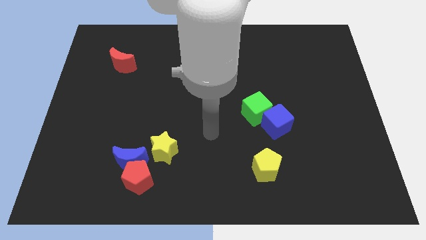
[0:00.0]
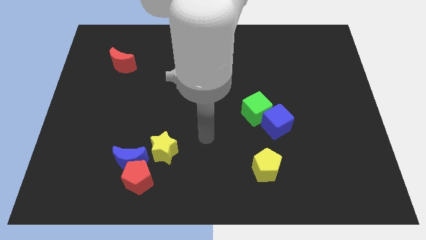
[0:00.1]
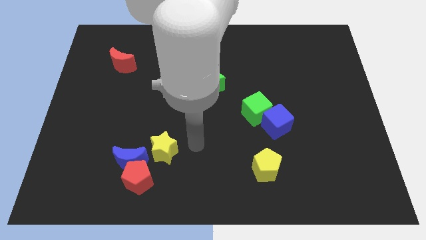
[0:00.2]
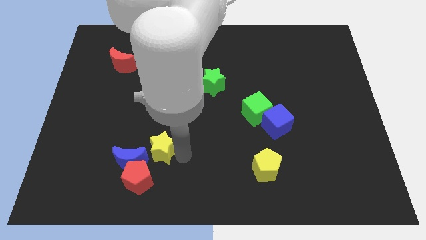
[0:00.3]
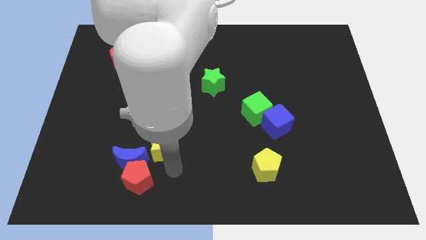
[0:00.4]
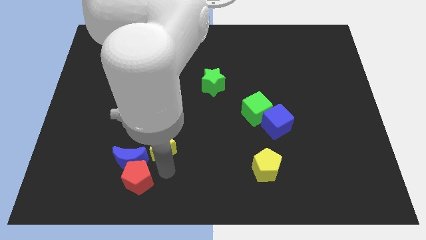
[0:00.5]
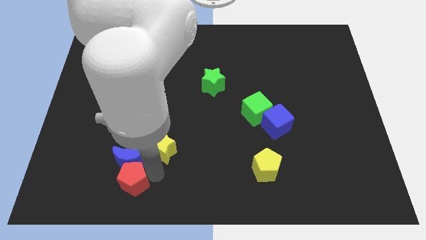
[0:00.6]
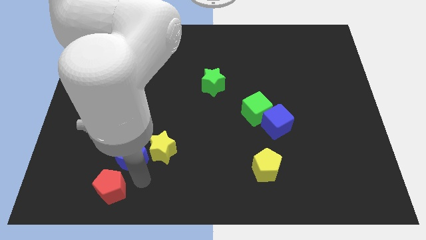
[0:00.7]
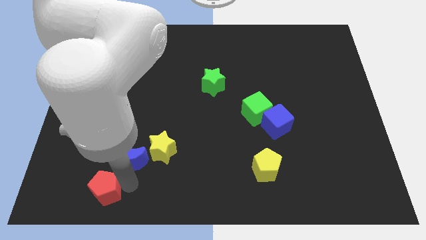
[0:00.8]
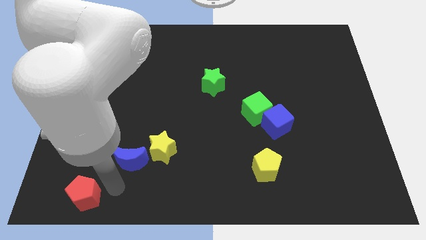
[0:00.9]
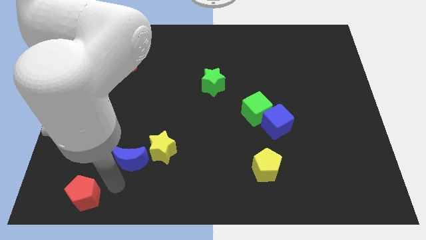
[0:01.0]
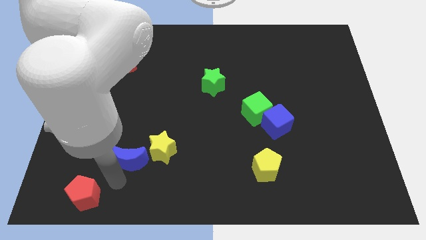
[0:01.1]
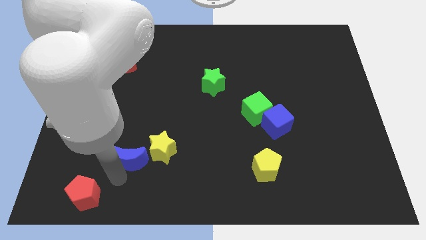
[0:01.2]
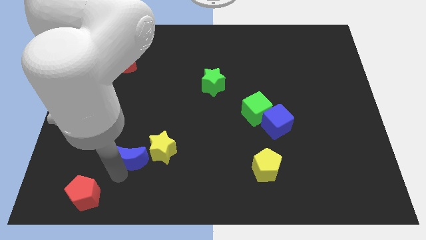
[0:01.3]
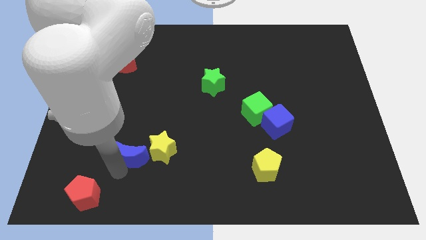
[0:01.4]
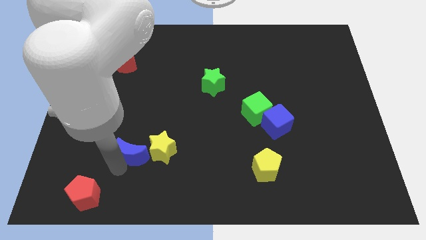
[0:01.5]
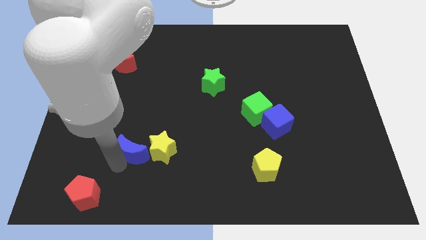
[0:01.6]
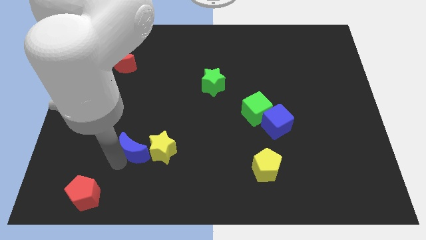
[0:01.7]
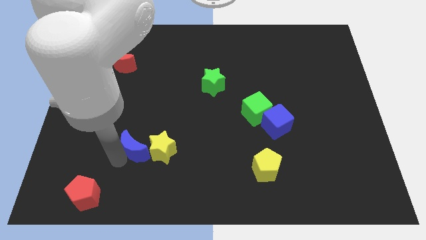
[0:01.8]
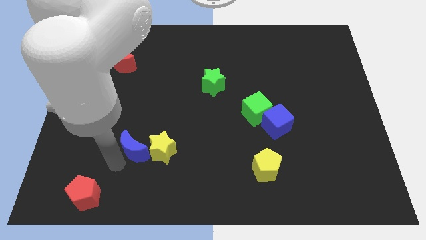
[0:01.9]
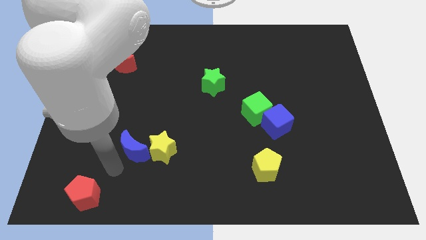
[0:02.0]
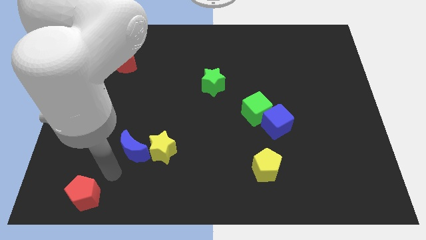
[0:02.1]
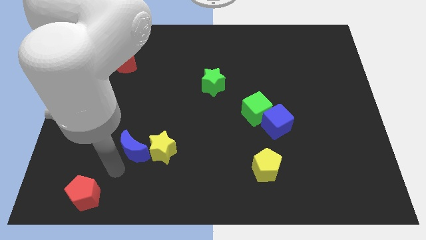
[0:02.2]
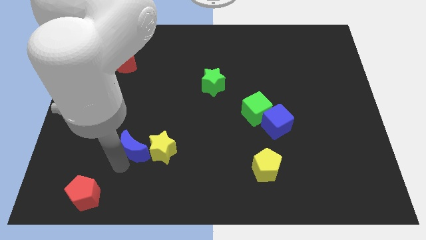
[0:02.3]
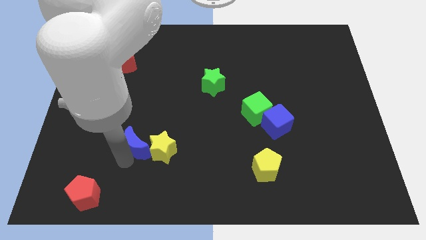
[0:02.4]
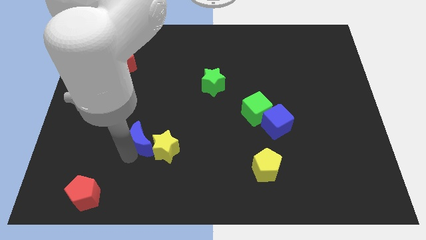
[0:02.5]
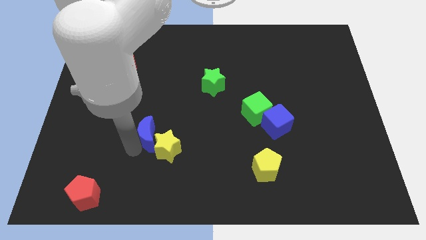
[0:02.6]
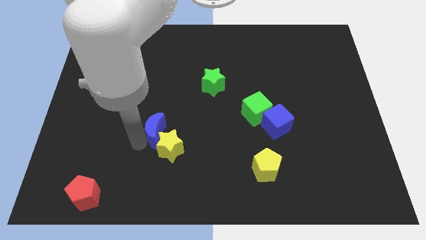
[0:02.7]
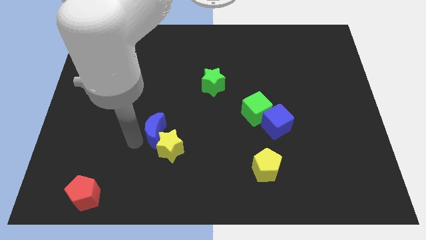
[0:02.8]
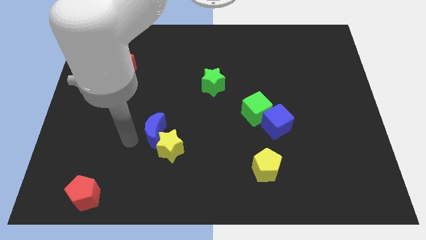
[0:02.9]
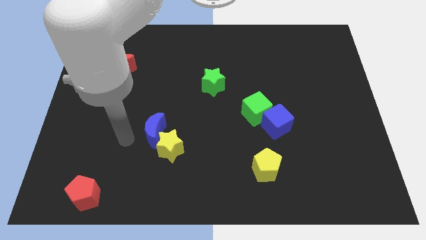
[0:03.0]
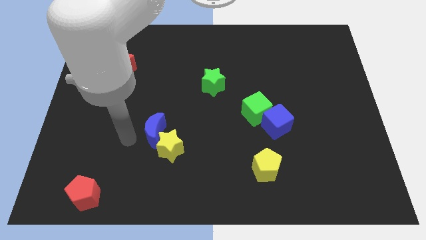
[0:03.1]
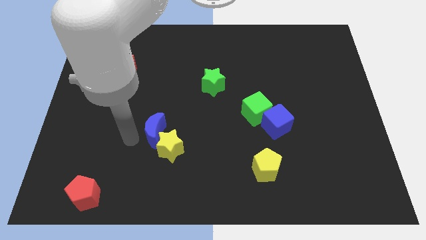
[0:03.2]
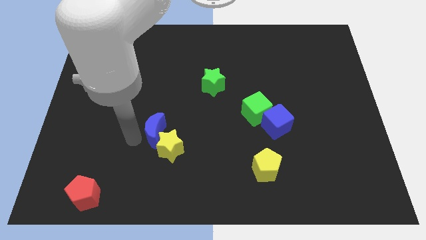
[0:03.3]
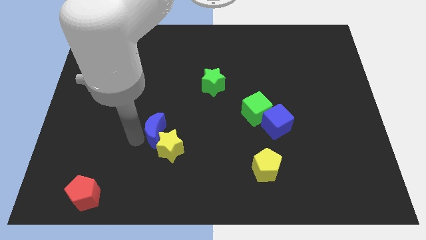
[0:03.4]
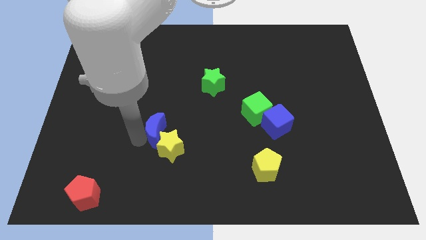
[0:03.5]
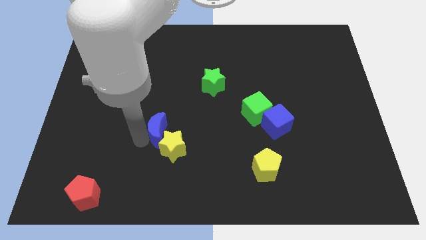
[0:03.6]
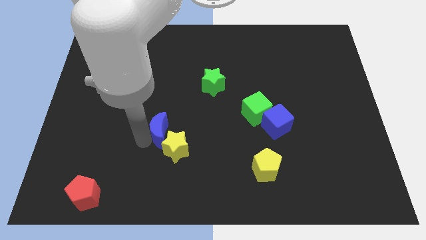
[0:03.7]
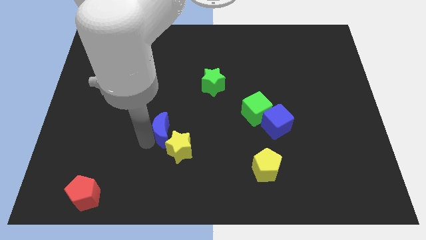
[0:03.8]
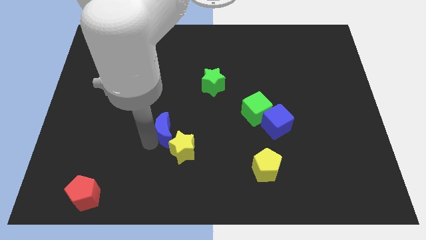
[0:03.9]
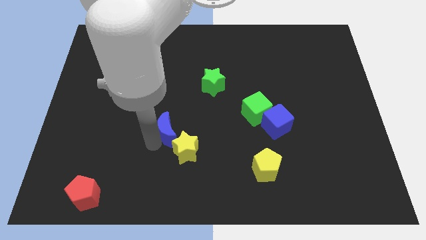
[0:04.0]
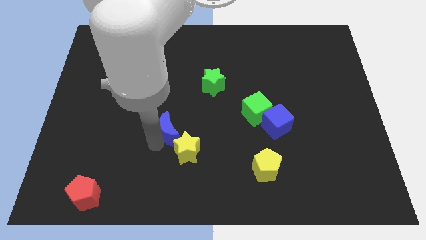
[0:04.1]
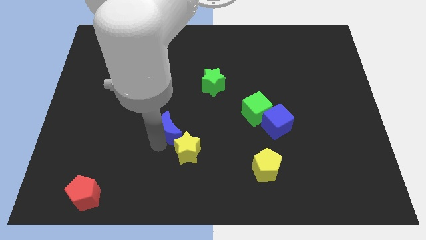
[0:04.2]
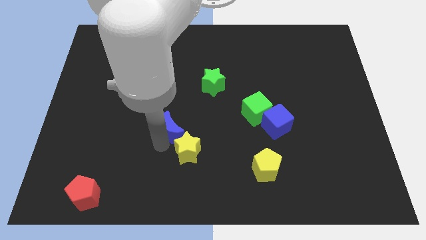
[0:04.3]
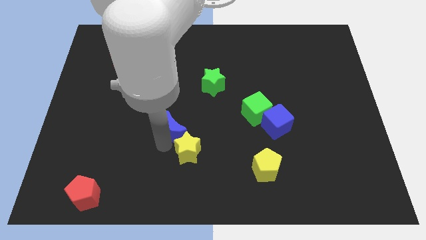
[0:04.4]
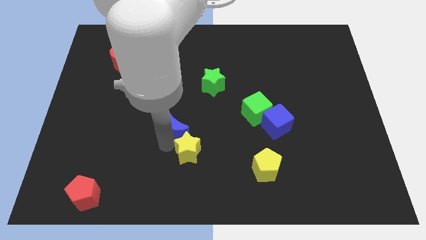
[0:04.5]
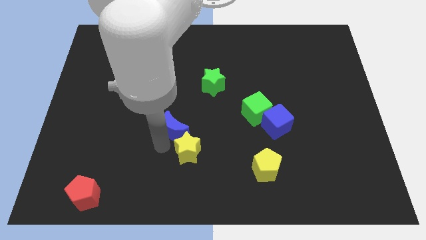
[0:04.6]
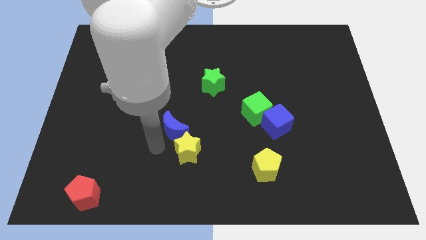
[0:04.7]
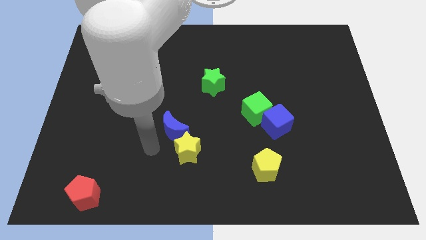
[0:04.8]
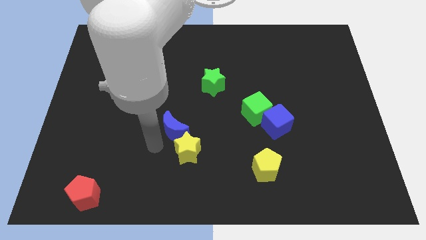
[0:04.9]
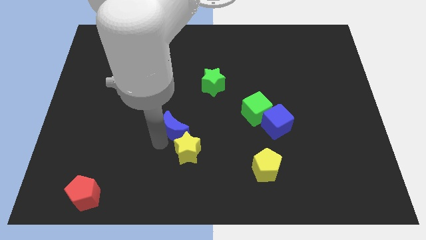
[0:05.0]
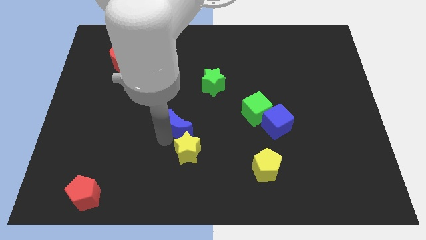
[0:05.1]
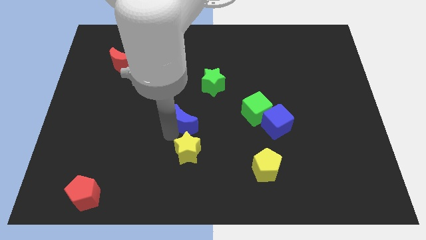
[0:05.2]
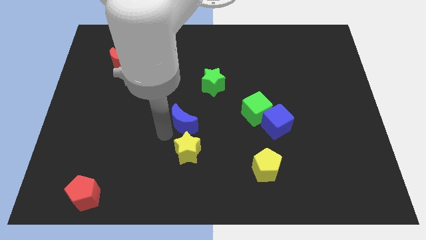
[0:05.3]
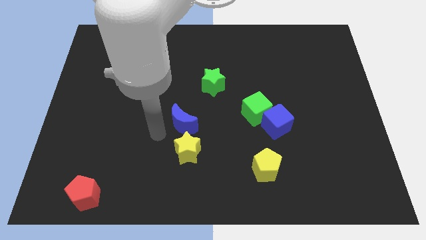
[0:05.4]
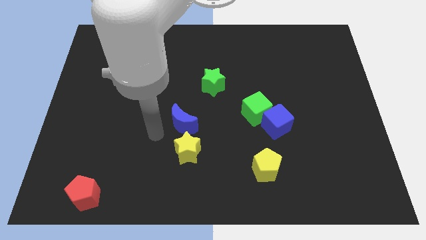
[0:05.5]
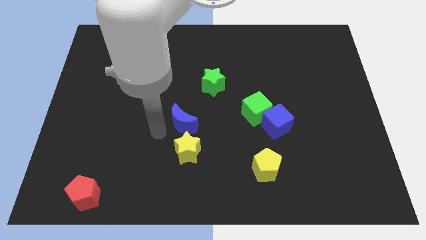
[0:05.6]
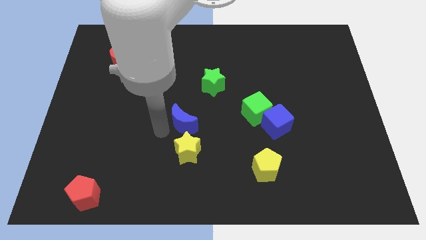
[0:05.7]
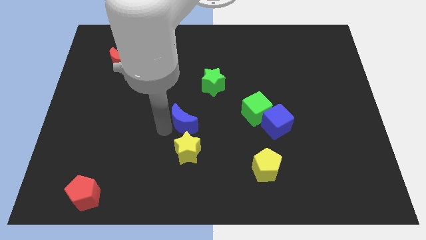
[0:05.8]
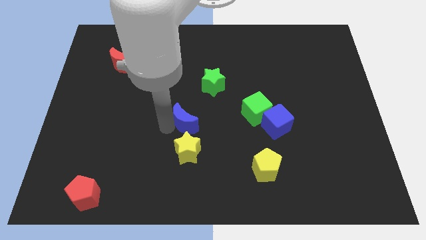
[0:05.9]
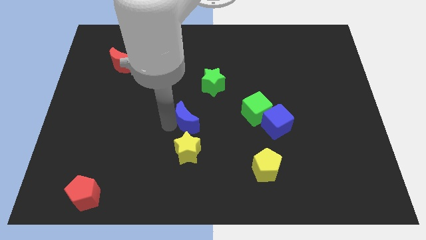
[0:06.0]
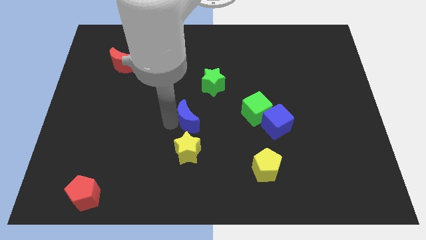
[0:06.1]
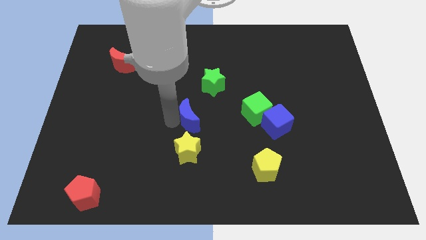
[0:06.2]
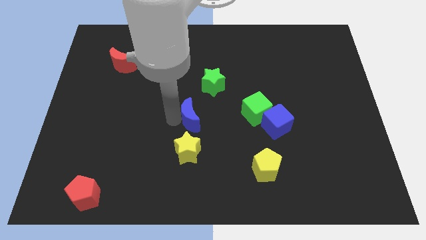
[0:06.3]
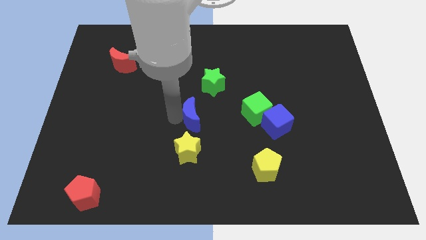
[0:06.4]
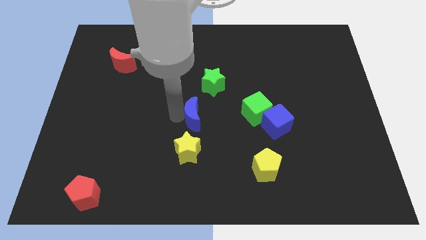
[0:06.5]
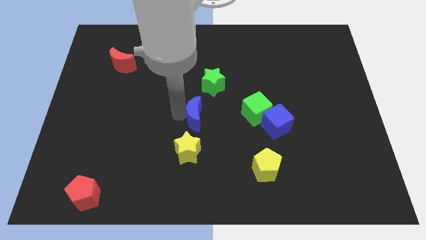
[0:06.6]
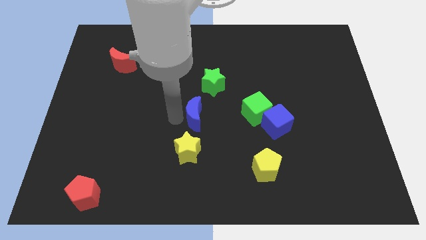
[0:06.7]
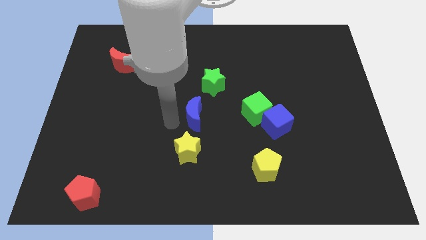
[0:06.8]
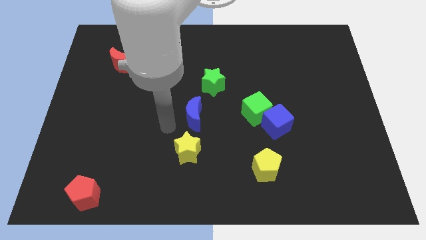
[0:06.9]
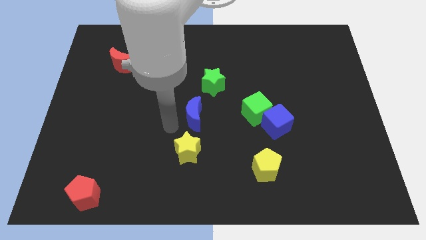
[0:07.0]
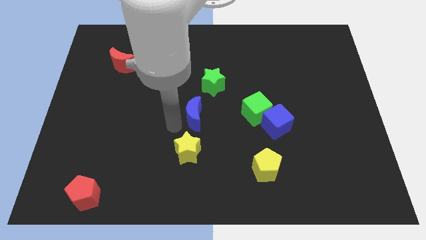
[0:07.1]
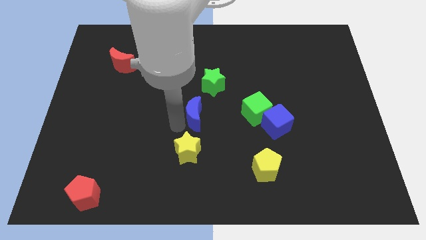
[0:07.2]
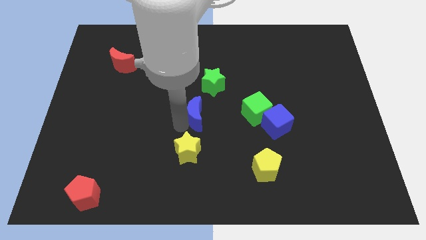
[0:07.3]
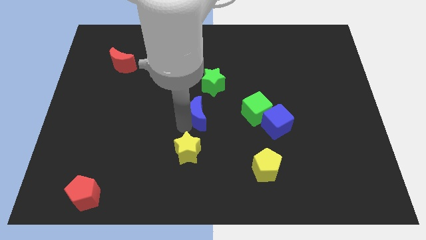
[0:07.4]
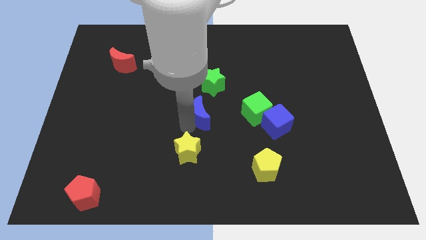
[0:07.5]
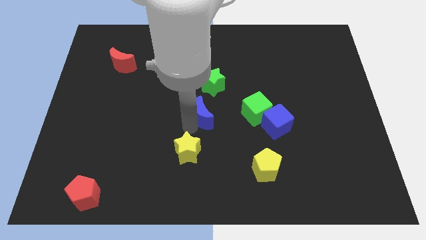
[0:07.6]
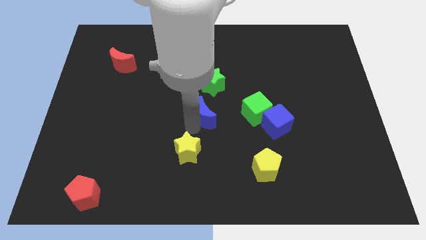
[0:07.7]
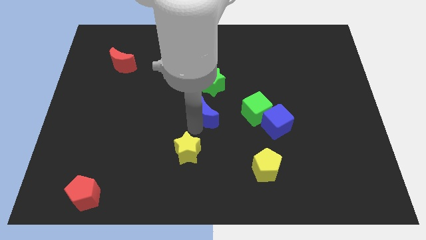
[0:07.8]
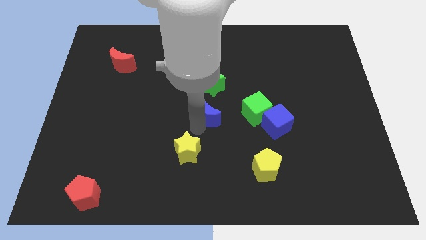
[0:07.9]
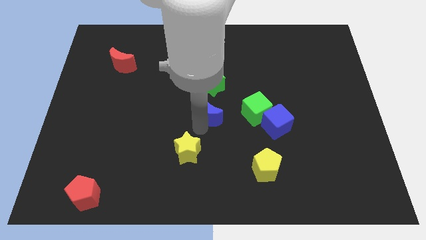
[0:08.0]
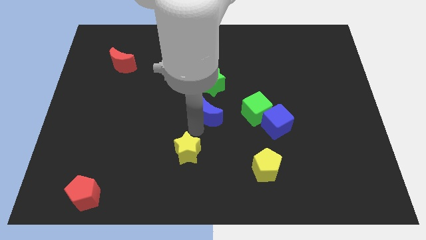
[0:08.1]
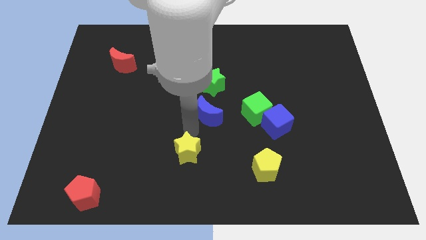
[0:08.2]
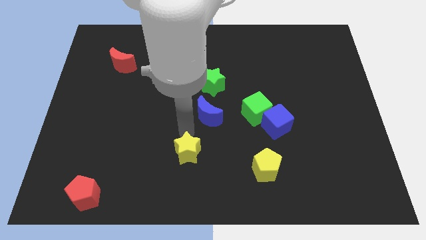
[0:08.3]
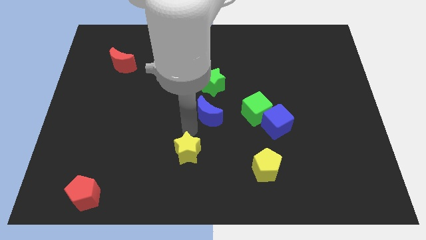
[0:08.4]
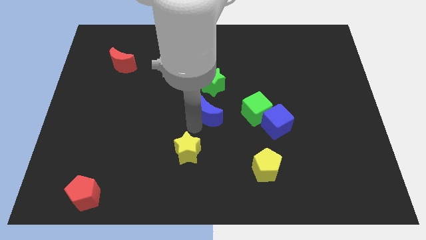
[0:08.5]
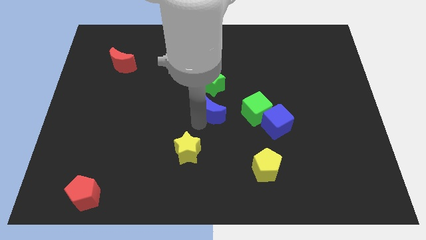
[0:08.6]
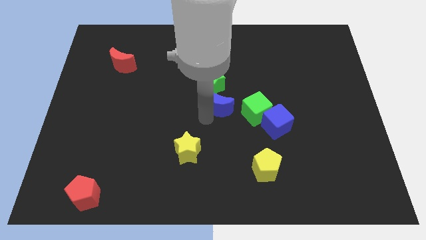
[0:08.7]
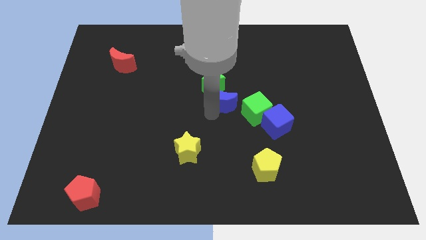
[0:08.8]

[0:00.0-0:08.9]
put the blue moon to the top left of the green cube
